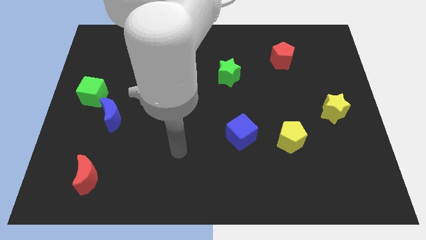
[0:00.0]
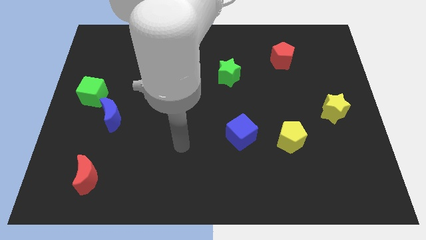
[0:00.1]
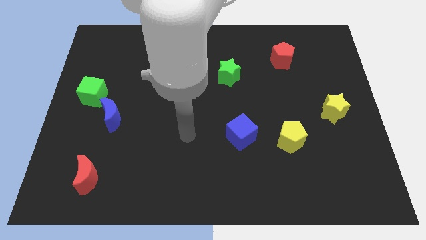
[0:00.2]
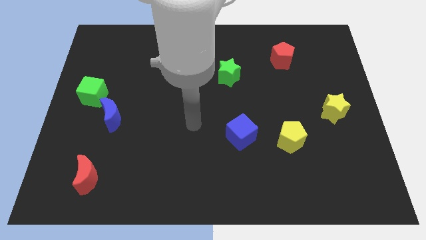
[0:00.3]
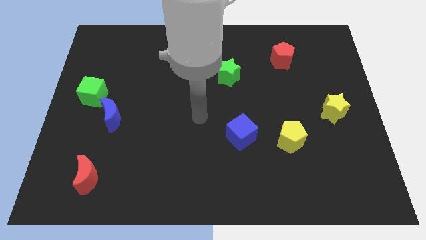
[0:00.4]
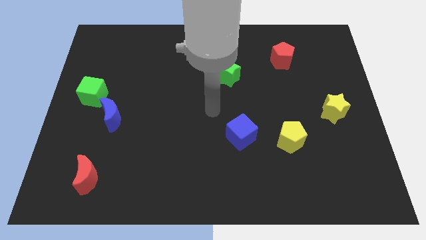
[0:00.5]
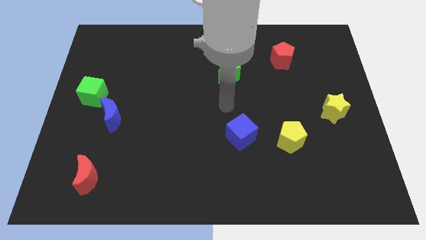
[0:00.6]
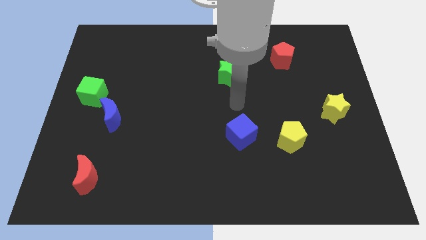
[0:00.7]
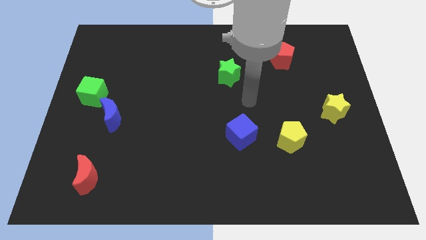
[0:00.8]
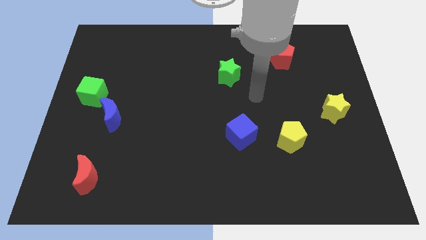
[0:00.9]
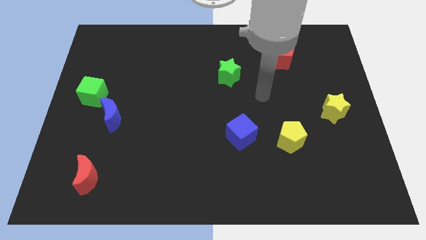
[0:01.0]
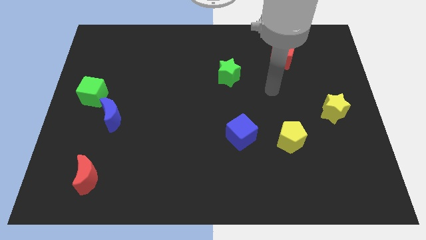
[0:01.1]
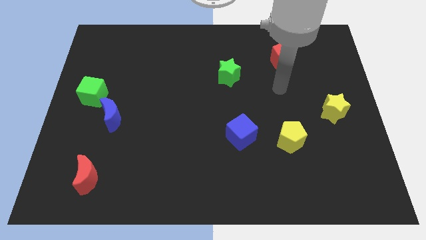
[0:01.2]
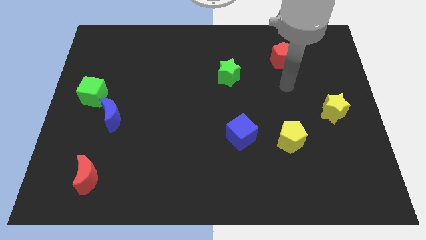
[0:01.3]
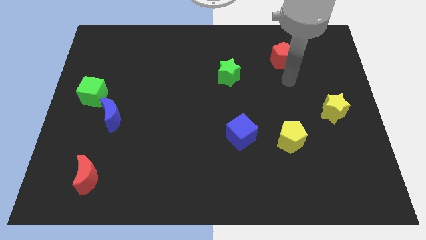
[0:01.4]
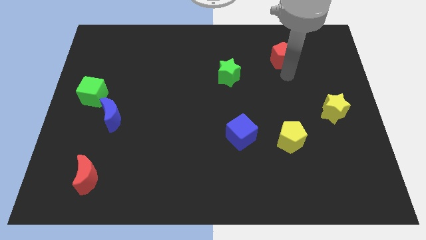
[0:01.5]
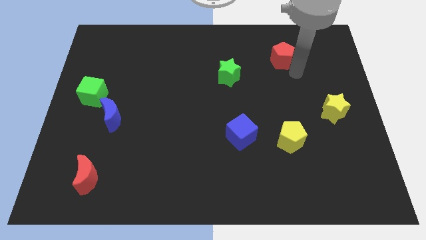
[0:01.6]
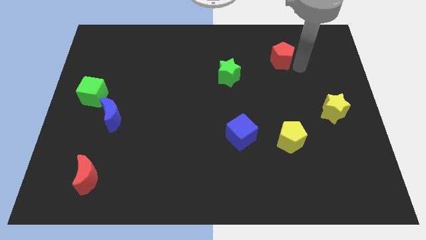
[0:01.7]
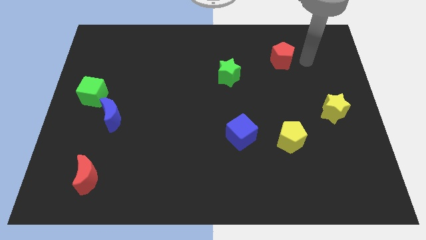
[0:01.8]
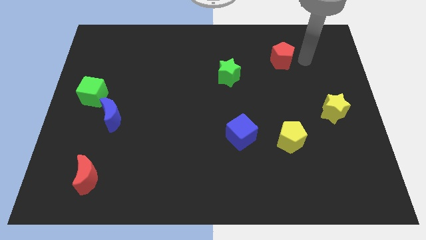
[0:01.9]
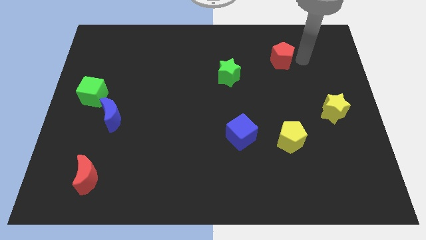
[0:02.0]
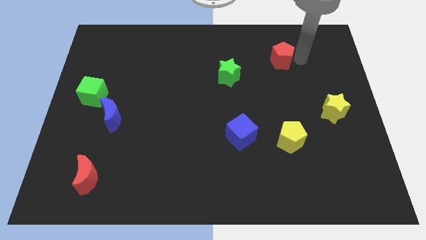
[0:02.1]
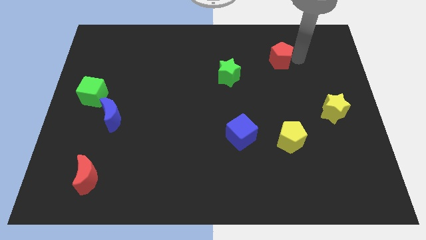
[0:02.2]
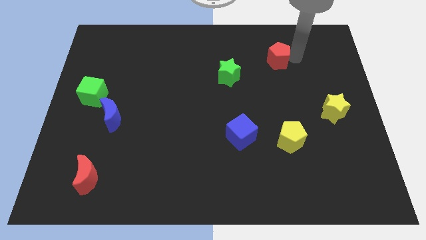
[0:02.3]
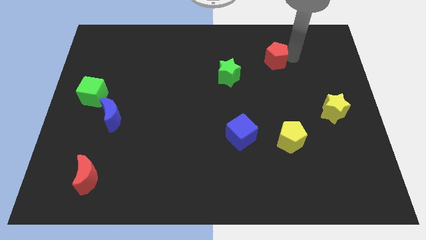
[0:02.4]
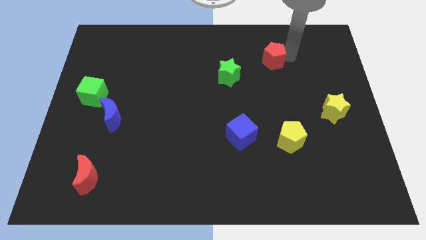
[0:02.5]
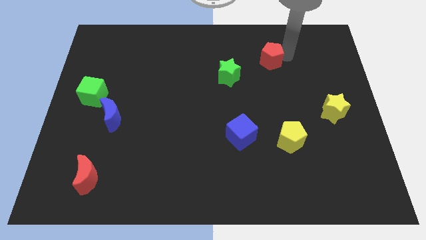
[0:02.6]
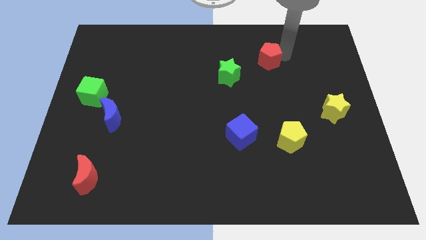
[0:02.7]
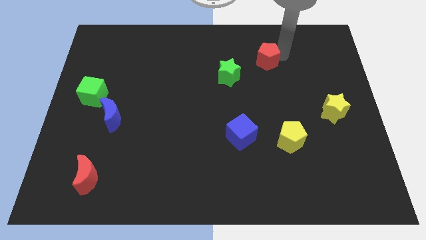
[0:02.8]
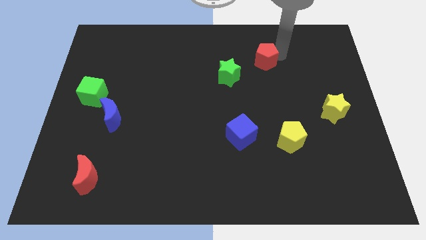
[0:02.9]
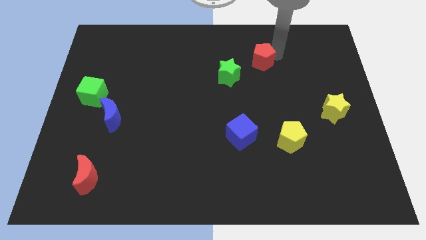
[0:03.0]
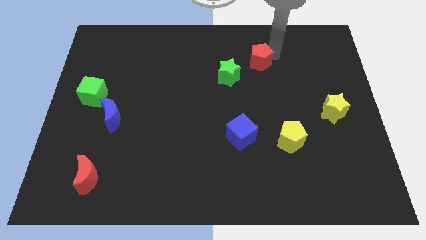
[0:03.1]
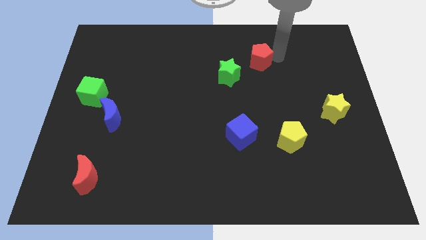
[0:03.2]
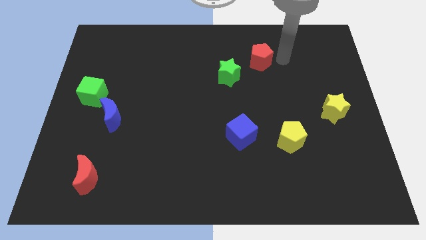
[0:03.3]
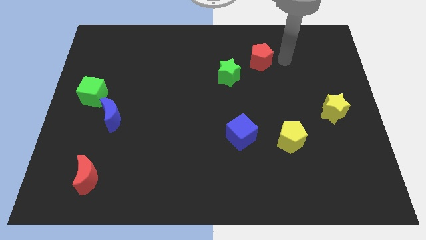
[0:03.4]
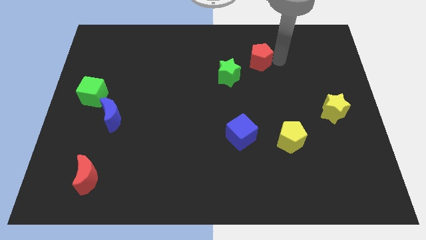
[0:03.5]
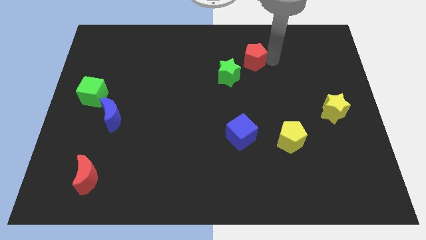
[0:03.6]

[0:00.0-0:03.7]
move the red pentagon a bit left

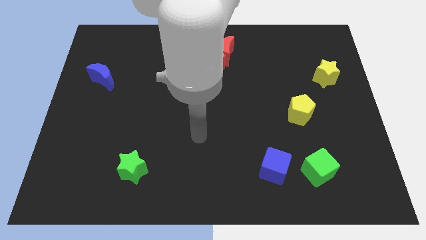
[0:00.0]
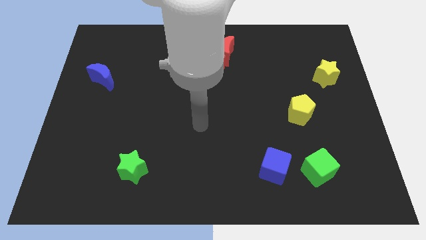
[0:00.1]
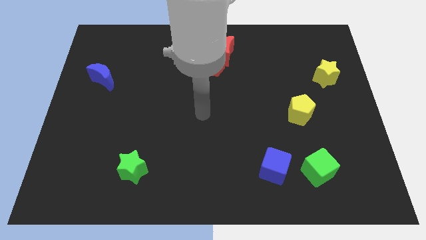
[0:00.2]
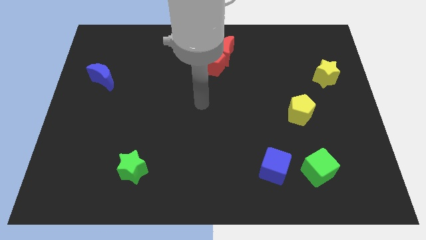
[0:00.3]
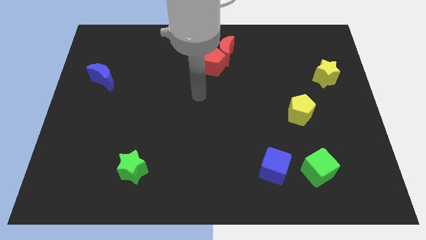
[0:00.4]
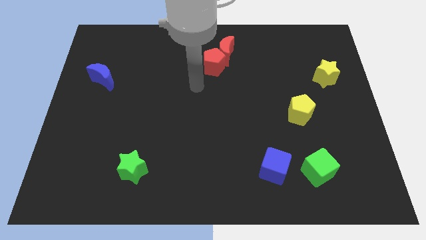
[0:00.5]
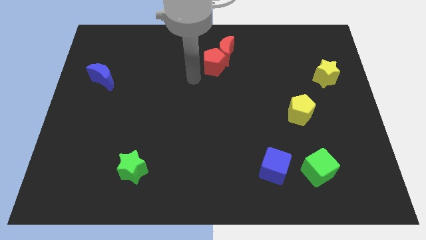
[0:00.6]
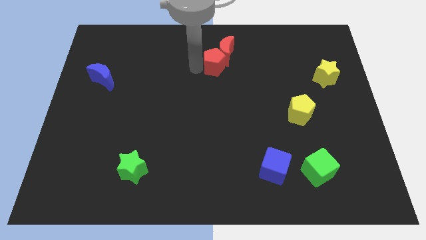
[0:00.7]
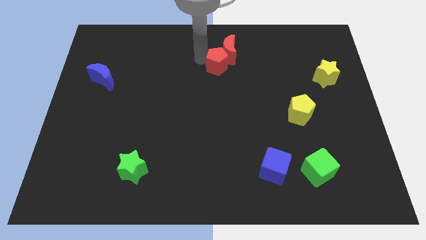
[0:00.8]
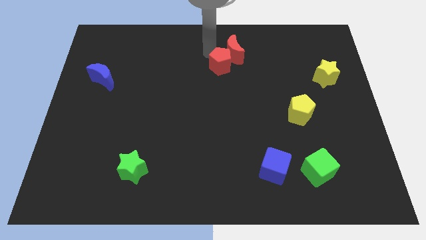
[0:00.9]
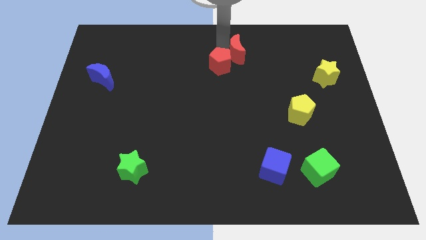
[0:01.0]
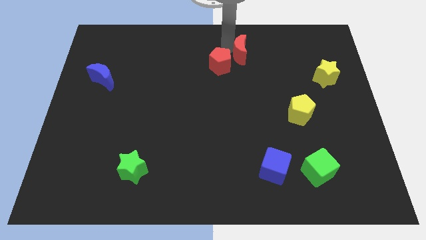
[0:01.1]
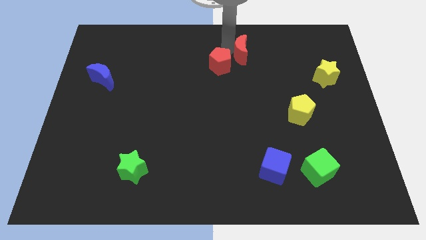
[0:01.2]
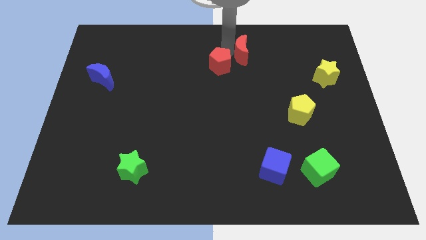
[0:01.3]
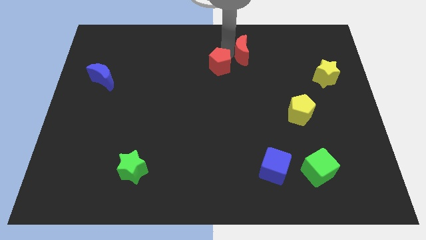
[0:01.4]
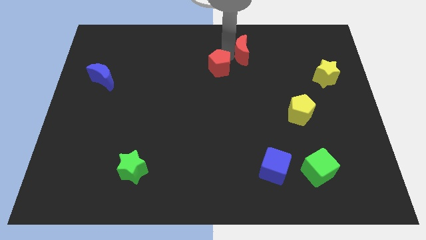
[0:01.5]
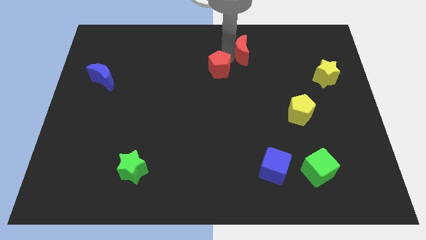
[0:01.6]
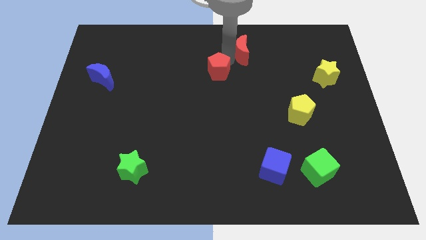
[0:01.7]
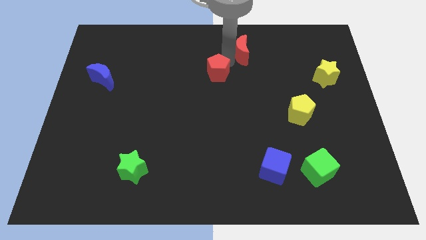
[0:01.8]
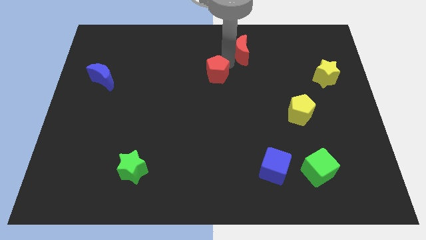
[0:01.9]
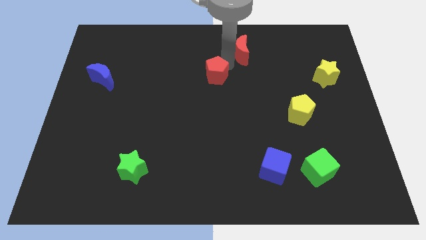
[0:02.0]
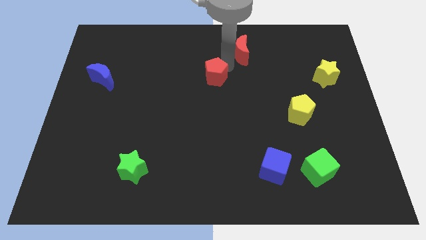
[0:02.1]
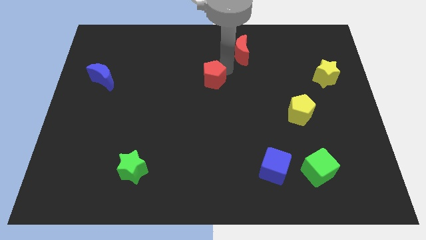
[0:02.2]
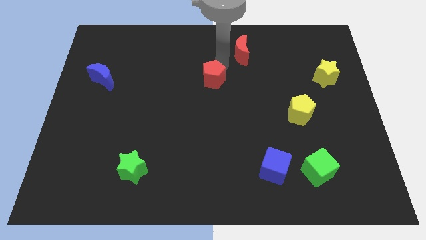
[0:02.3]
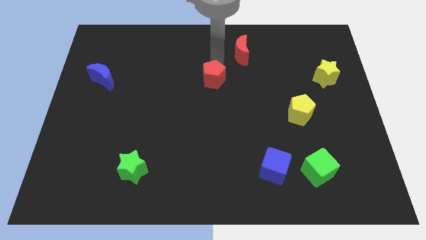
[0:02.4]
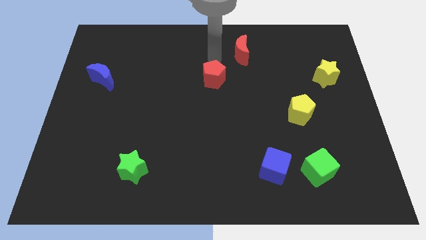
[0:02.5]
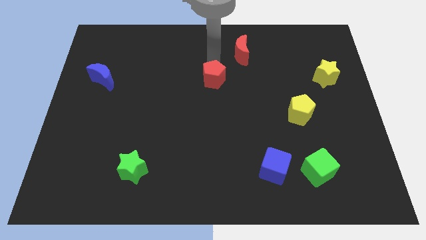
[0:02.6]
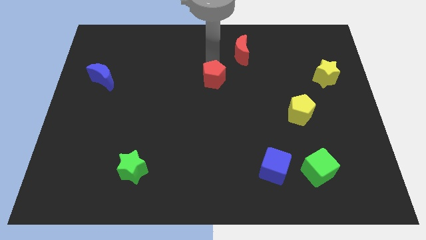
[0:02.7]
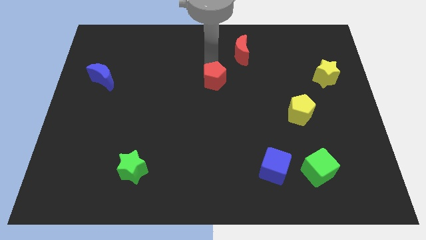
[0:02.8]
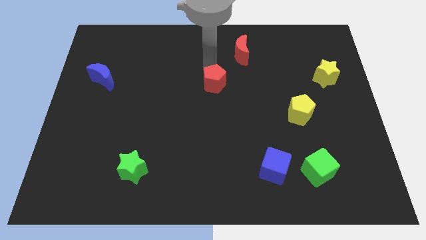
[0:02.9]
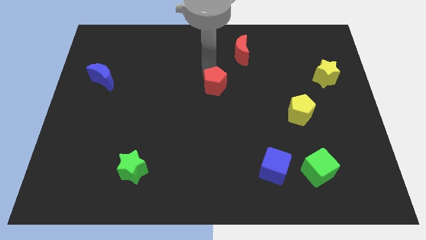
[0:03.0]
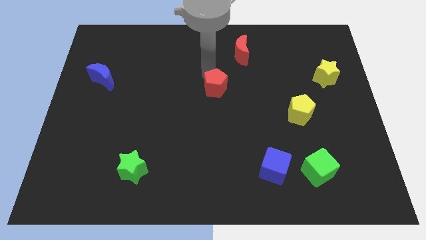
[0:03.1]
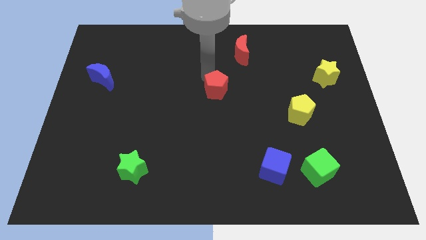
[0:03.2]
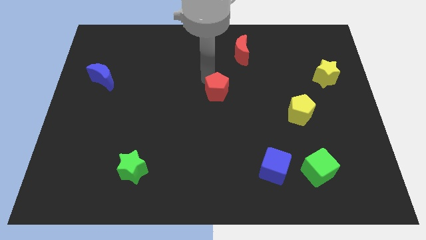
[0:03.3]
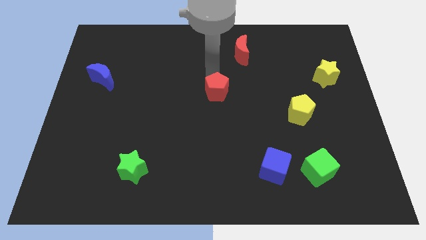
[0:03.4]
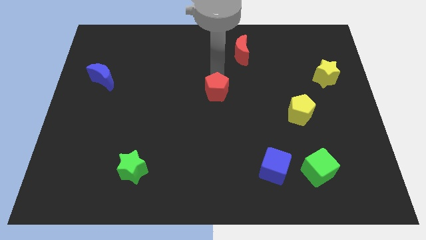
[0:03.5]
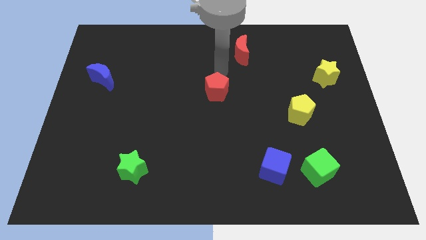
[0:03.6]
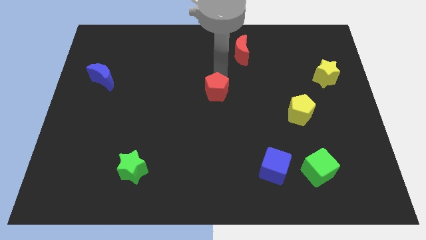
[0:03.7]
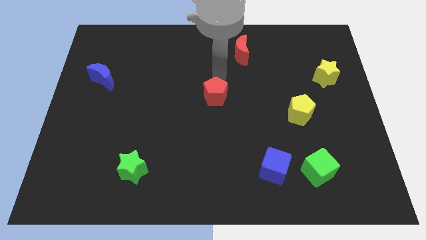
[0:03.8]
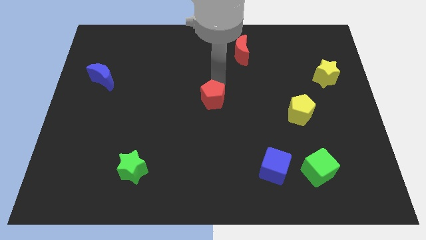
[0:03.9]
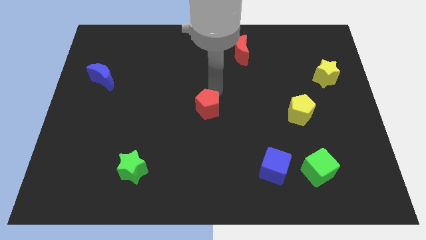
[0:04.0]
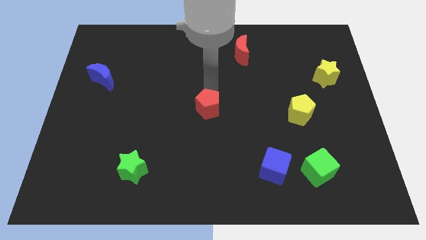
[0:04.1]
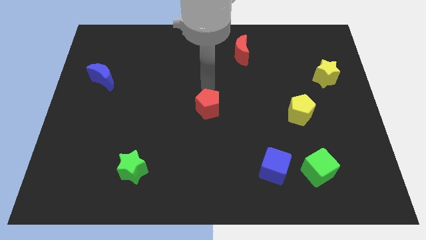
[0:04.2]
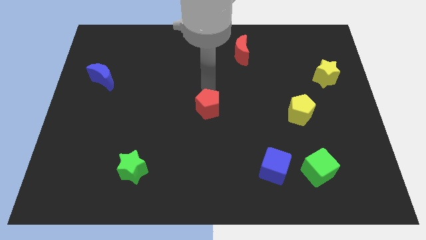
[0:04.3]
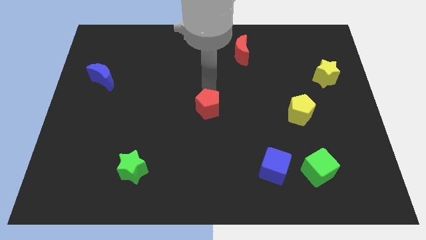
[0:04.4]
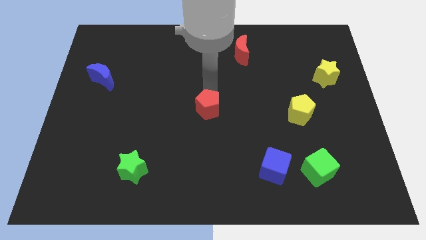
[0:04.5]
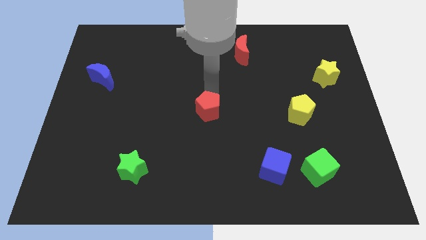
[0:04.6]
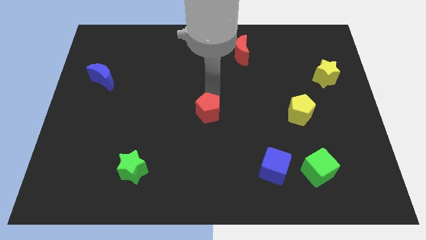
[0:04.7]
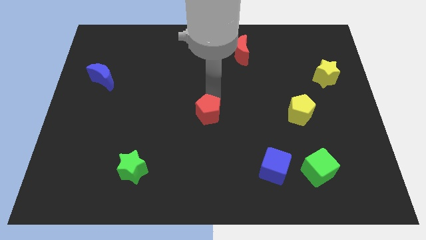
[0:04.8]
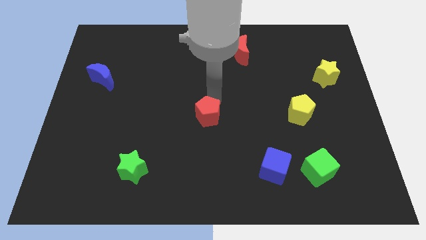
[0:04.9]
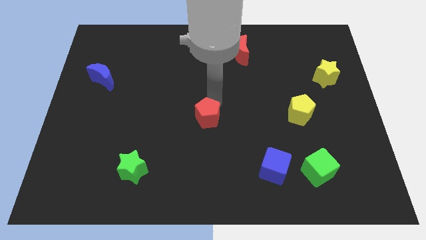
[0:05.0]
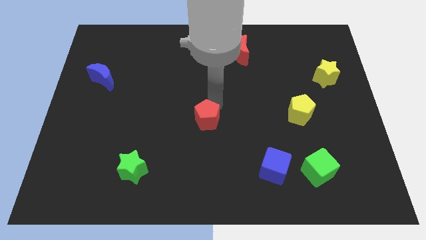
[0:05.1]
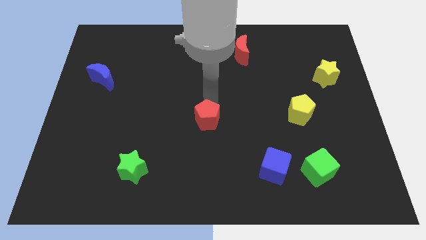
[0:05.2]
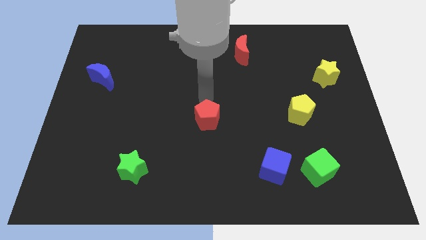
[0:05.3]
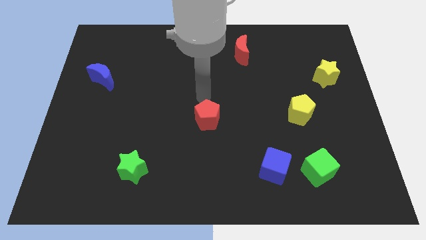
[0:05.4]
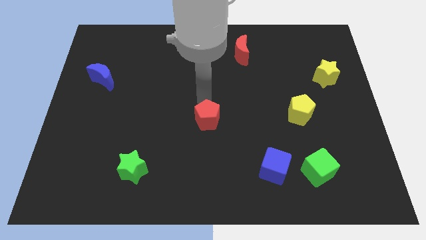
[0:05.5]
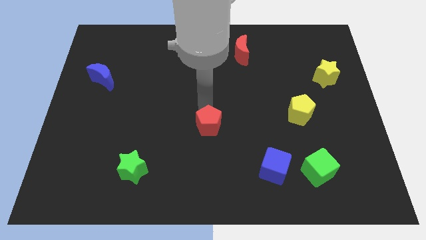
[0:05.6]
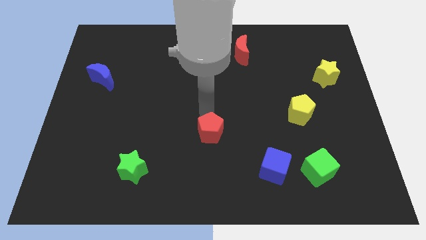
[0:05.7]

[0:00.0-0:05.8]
move the red pentagon downwards
